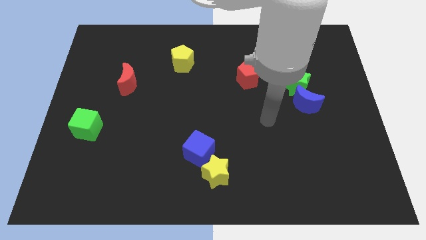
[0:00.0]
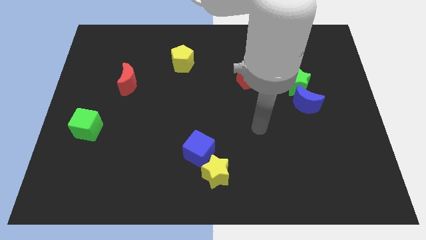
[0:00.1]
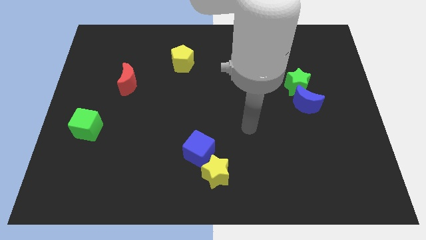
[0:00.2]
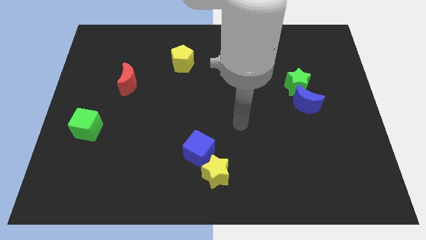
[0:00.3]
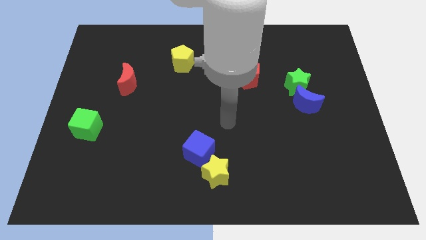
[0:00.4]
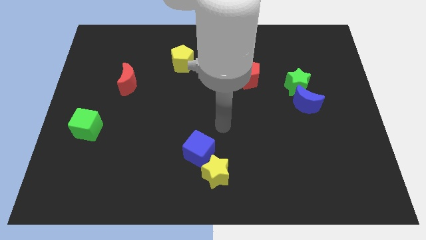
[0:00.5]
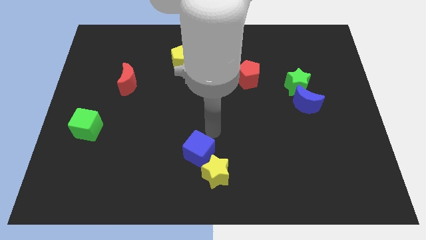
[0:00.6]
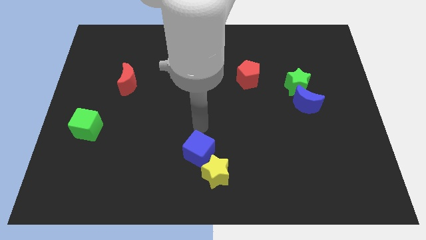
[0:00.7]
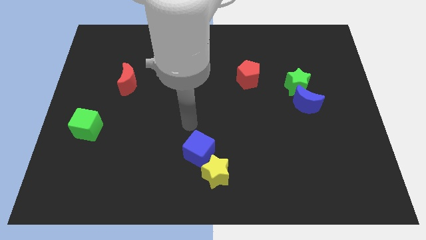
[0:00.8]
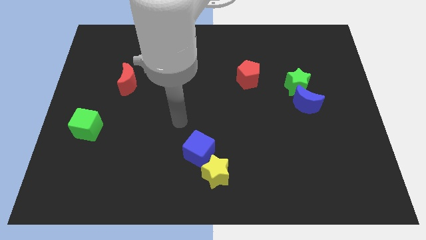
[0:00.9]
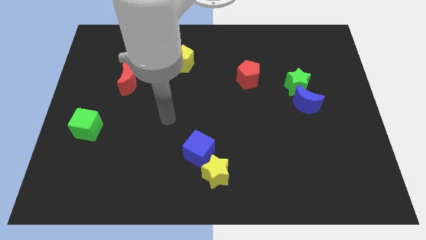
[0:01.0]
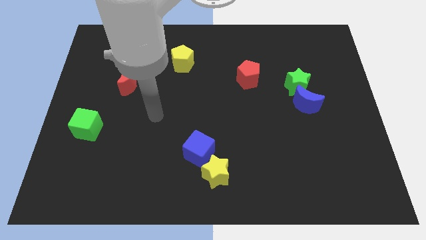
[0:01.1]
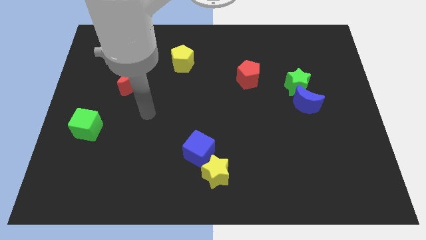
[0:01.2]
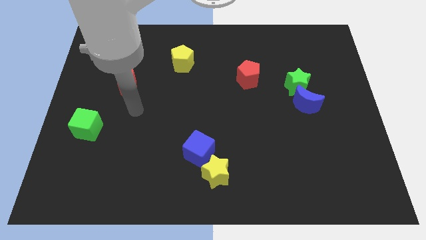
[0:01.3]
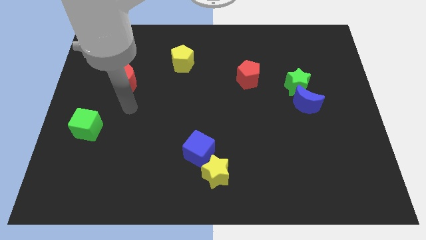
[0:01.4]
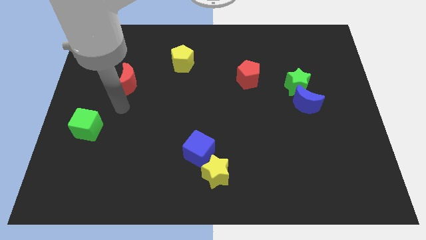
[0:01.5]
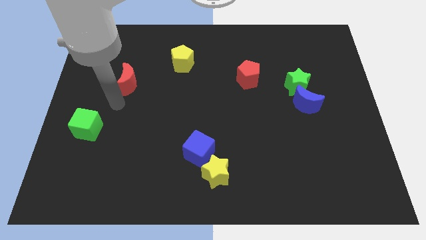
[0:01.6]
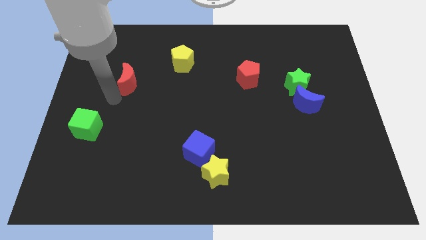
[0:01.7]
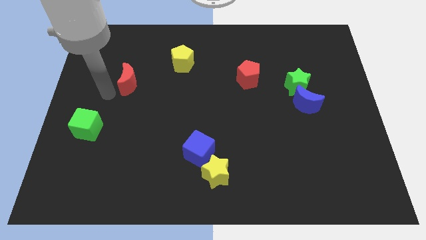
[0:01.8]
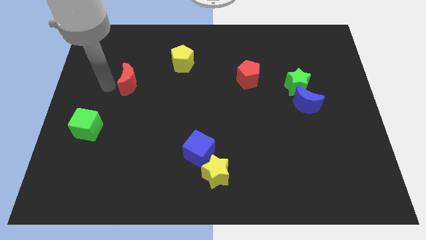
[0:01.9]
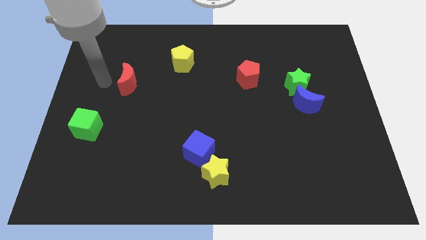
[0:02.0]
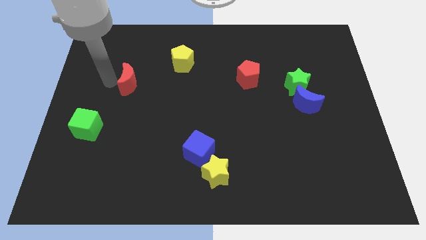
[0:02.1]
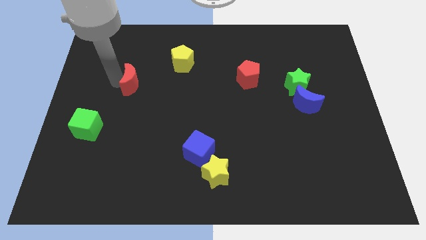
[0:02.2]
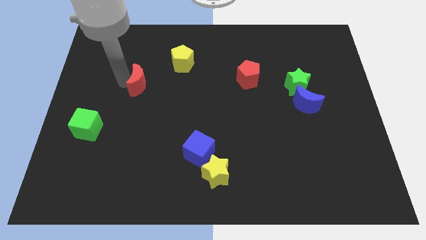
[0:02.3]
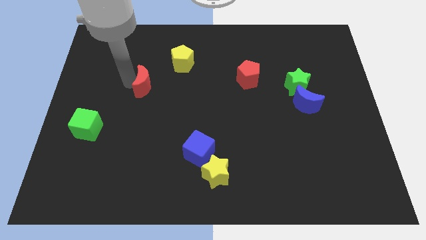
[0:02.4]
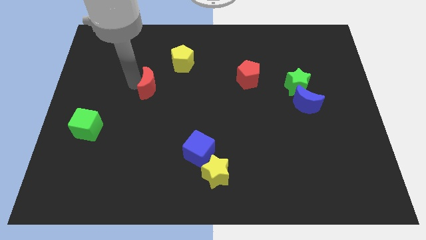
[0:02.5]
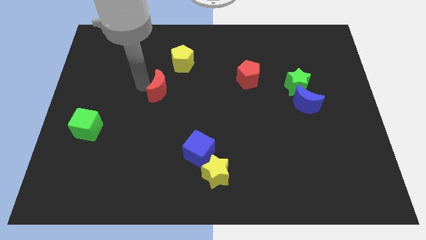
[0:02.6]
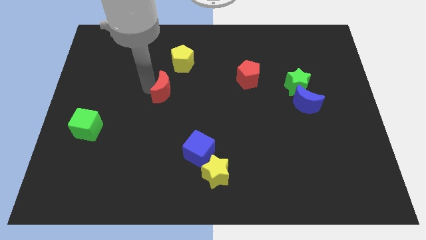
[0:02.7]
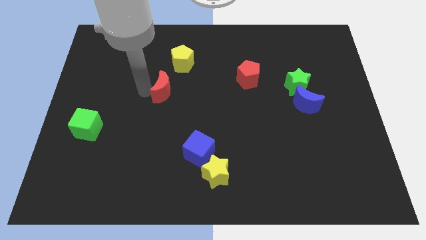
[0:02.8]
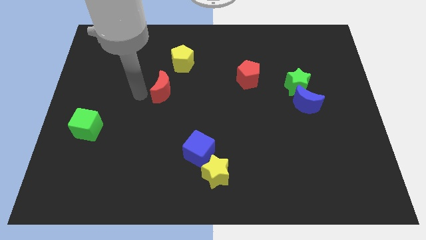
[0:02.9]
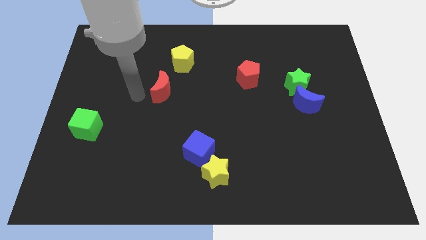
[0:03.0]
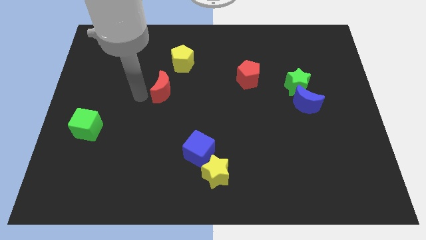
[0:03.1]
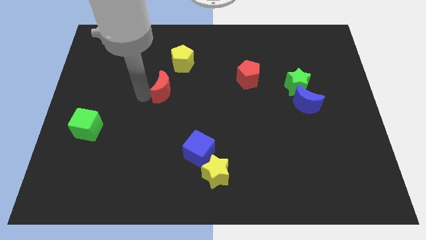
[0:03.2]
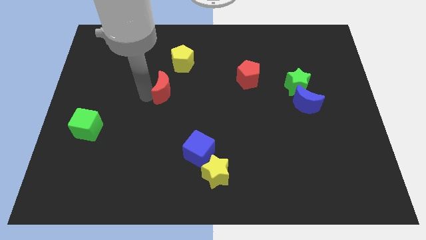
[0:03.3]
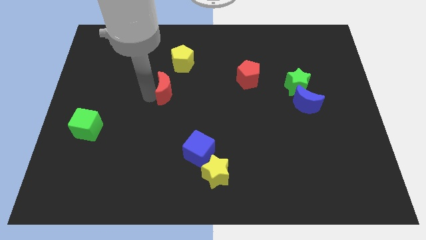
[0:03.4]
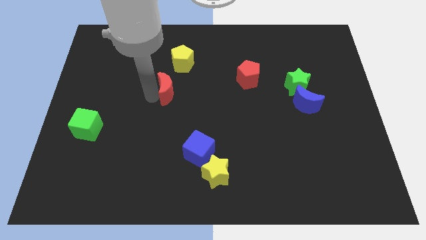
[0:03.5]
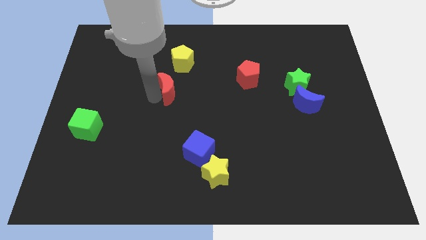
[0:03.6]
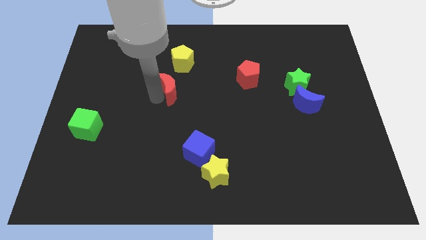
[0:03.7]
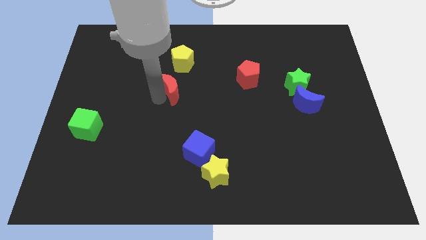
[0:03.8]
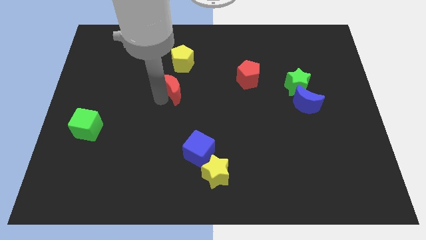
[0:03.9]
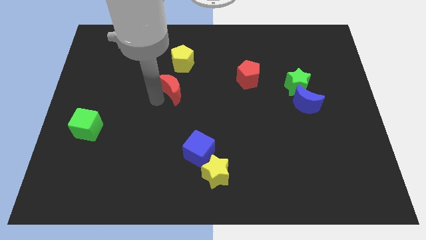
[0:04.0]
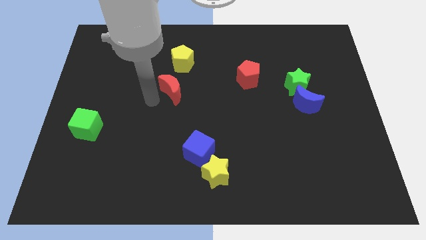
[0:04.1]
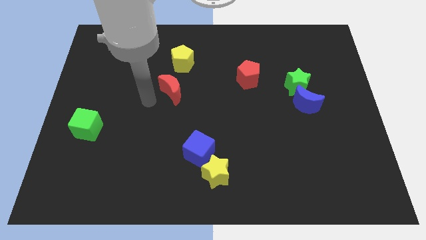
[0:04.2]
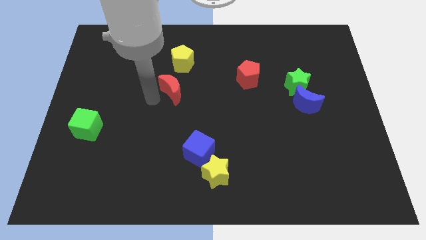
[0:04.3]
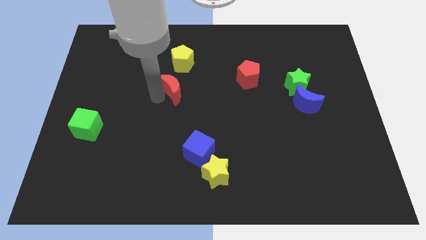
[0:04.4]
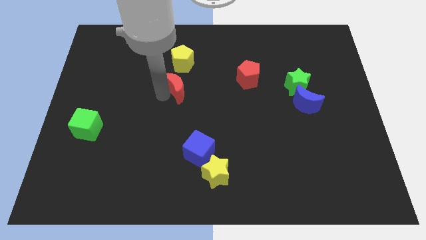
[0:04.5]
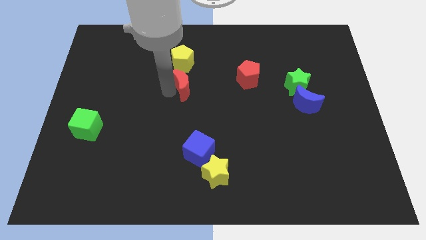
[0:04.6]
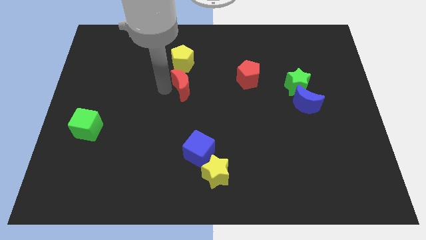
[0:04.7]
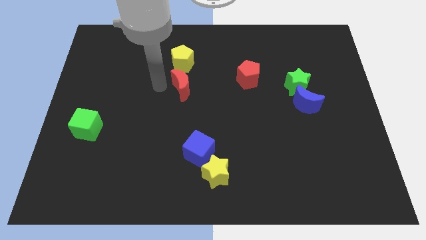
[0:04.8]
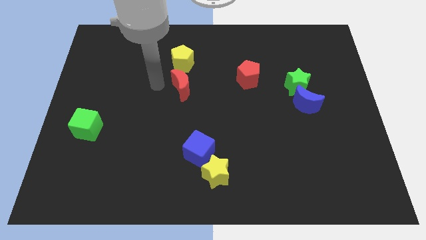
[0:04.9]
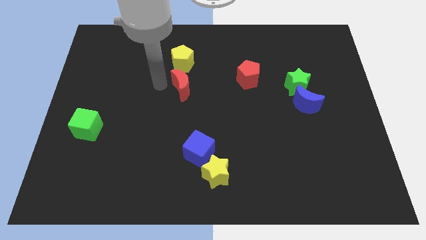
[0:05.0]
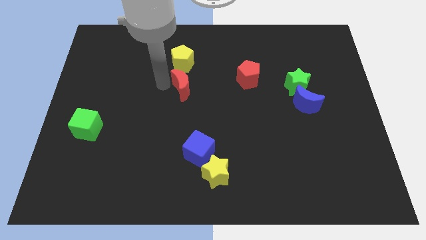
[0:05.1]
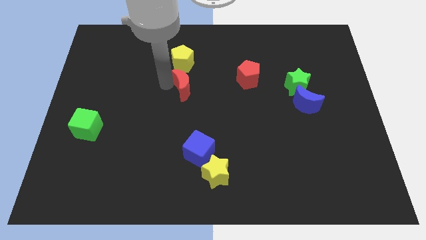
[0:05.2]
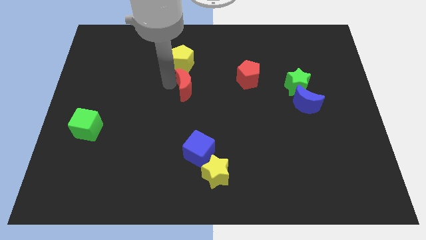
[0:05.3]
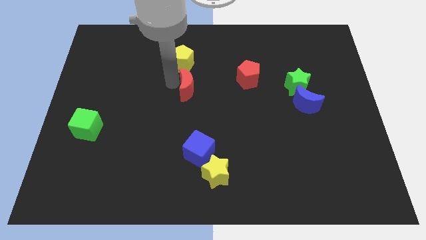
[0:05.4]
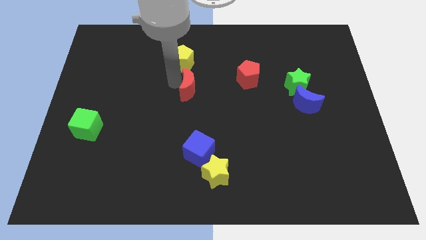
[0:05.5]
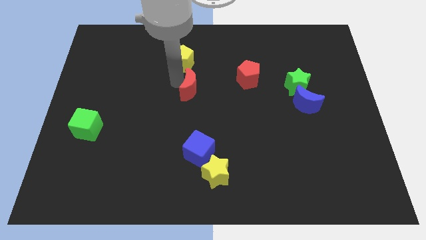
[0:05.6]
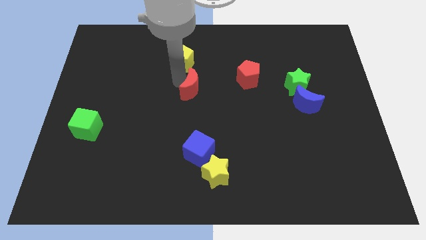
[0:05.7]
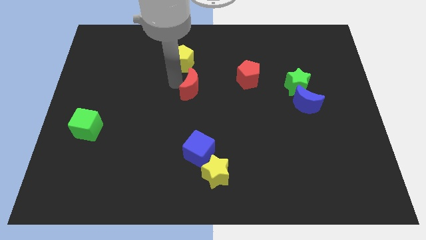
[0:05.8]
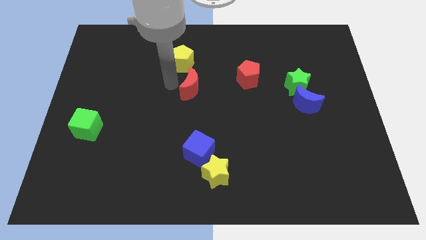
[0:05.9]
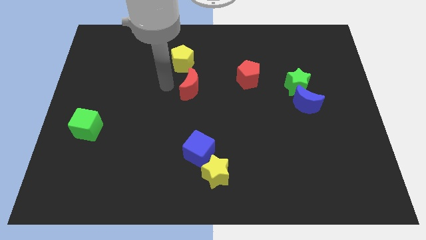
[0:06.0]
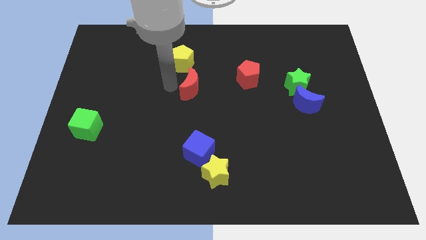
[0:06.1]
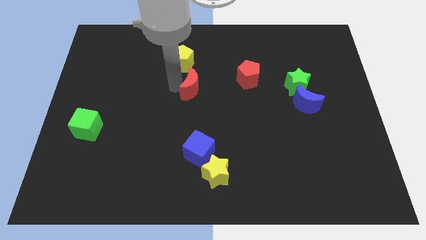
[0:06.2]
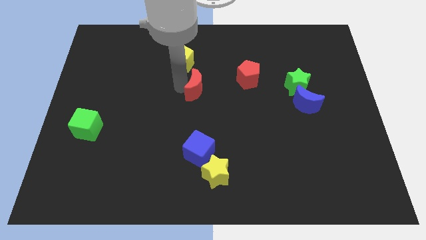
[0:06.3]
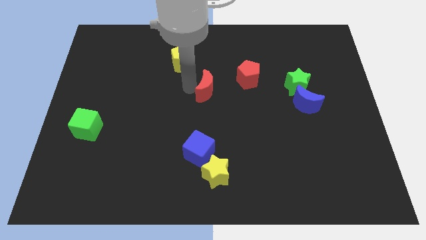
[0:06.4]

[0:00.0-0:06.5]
slide the red moon to the bottom left side of the red pentagon
